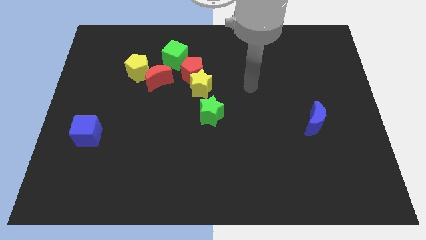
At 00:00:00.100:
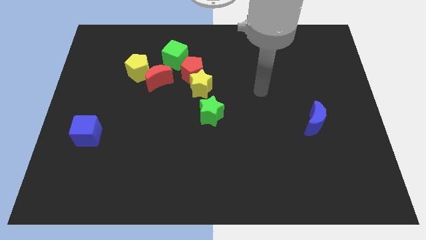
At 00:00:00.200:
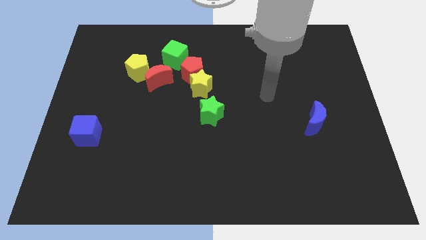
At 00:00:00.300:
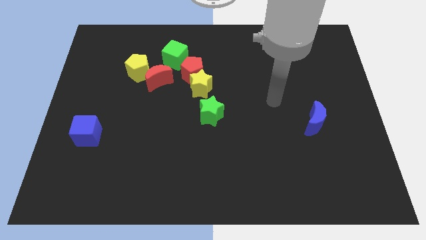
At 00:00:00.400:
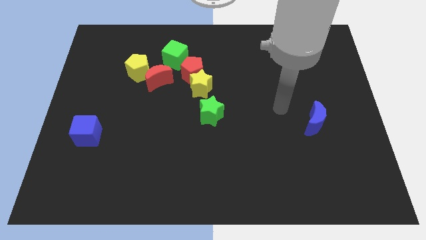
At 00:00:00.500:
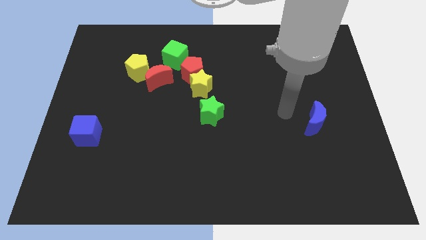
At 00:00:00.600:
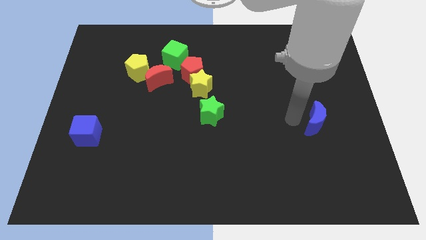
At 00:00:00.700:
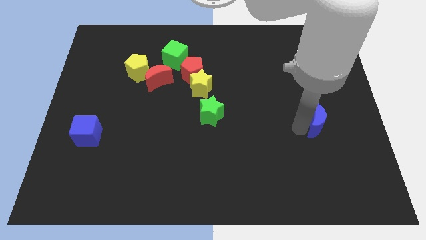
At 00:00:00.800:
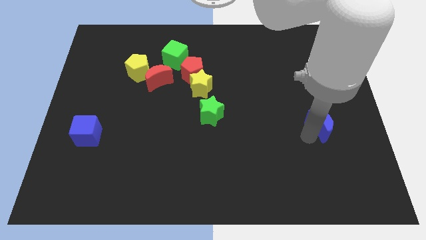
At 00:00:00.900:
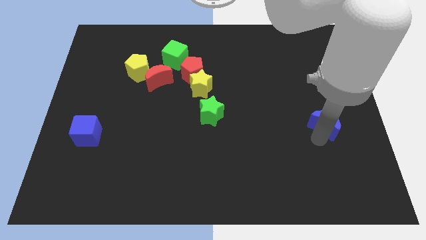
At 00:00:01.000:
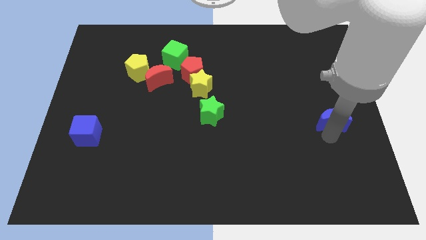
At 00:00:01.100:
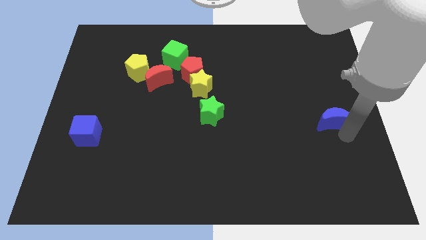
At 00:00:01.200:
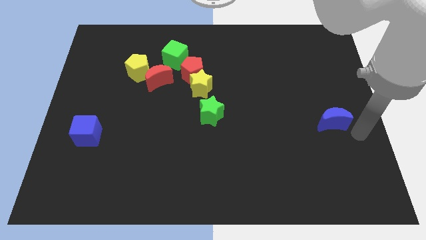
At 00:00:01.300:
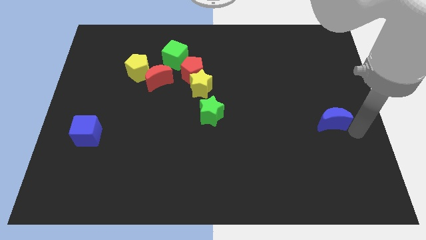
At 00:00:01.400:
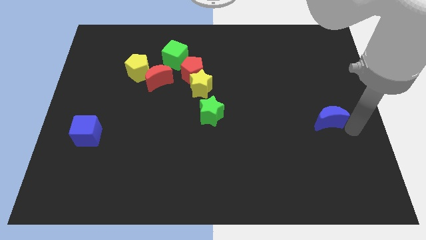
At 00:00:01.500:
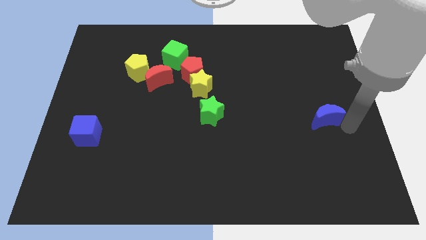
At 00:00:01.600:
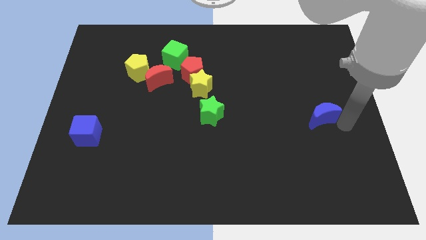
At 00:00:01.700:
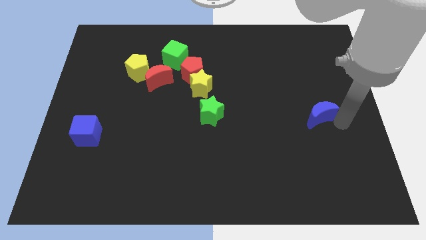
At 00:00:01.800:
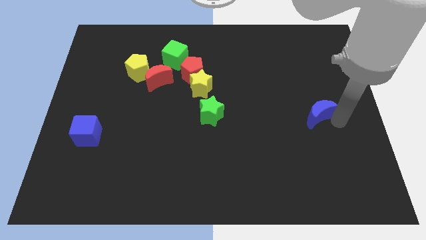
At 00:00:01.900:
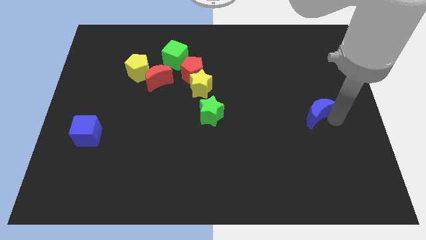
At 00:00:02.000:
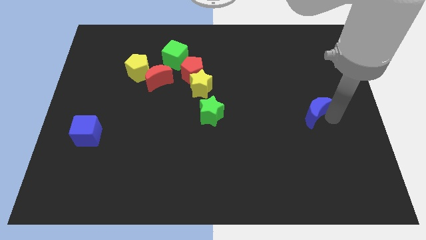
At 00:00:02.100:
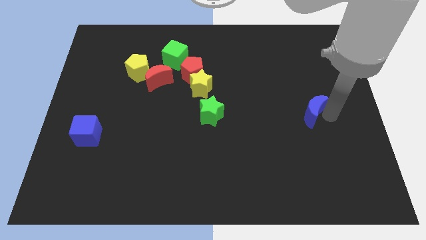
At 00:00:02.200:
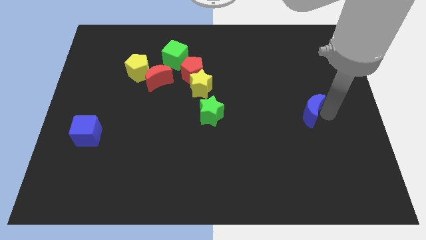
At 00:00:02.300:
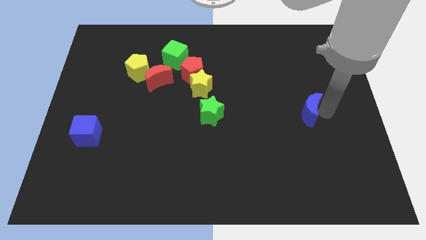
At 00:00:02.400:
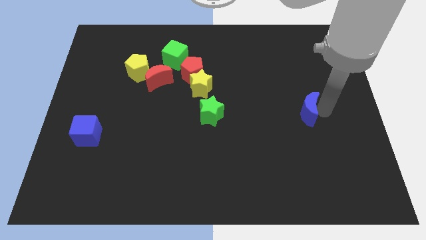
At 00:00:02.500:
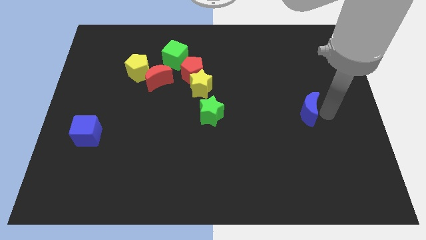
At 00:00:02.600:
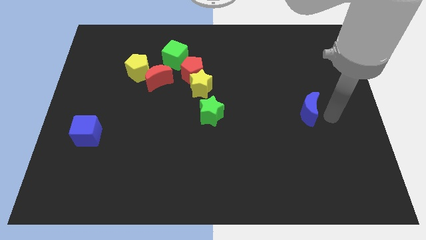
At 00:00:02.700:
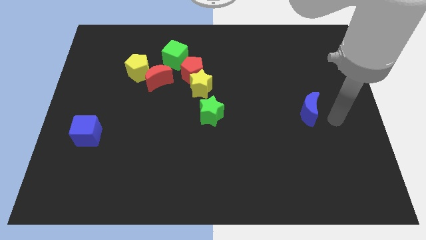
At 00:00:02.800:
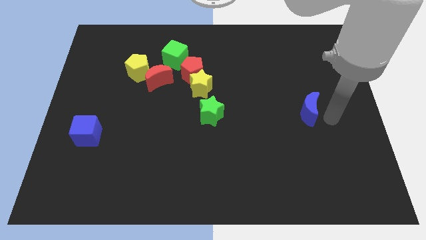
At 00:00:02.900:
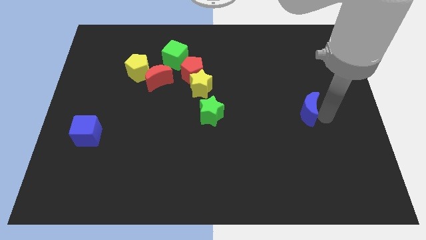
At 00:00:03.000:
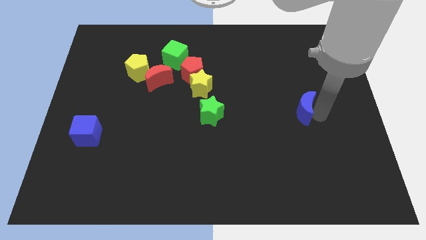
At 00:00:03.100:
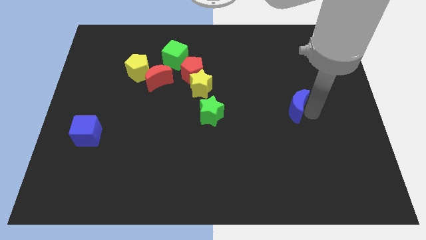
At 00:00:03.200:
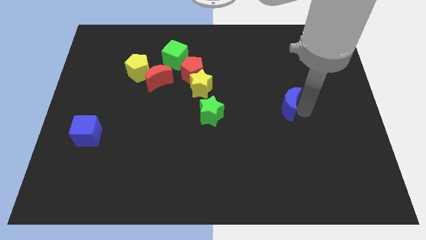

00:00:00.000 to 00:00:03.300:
slightly move the blue moon diagonally upwards and to the left

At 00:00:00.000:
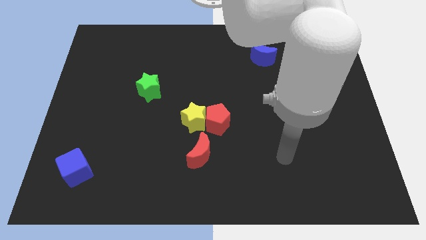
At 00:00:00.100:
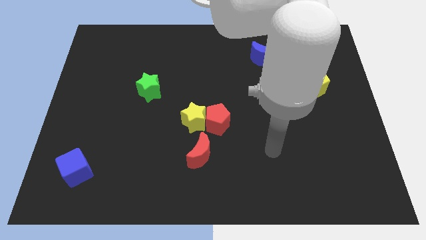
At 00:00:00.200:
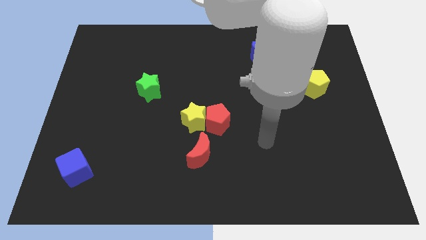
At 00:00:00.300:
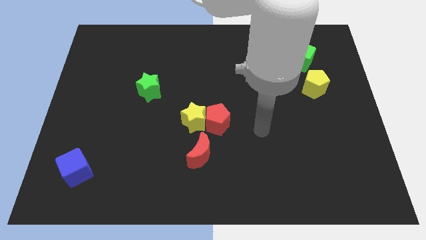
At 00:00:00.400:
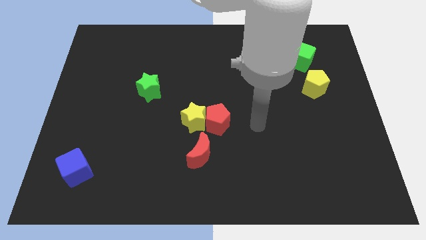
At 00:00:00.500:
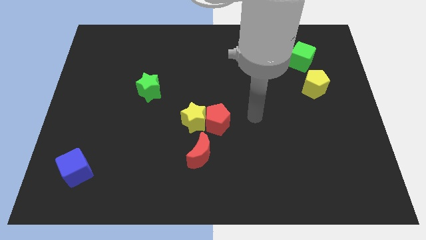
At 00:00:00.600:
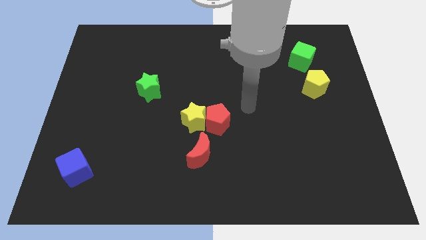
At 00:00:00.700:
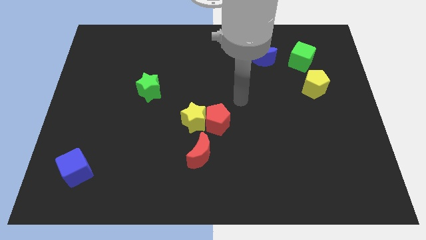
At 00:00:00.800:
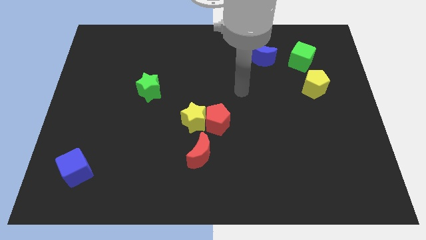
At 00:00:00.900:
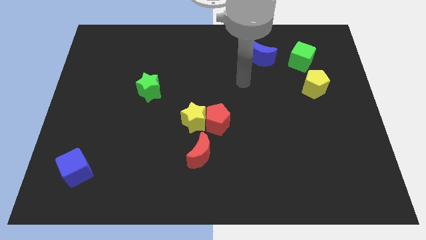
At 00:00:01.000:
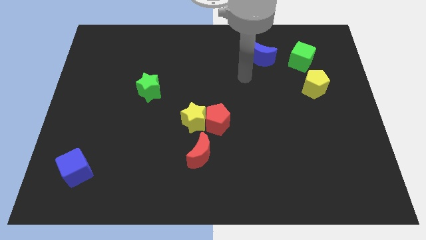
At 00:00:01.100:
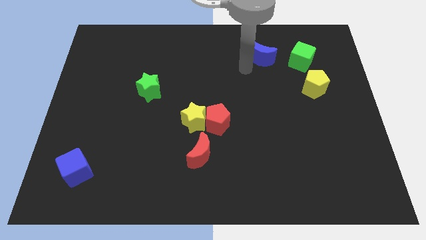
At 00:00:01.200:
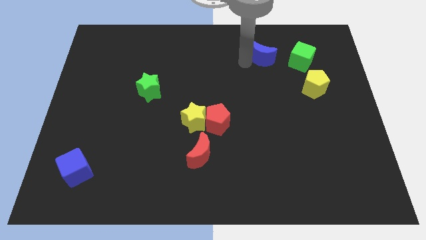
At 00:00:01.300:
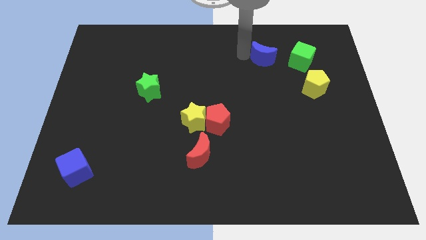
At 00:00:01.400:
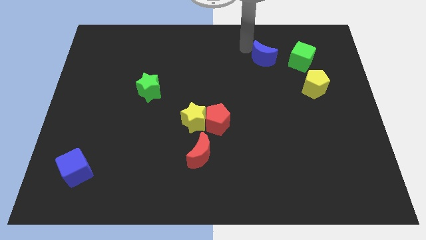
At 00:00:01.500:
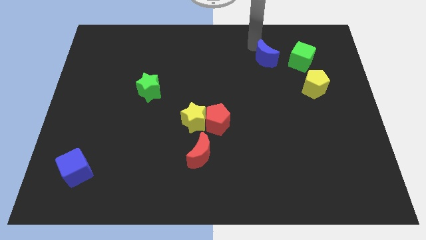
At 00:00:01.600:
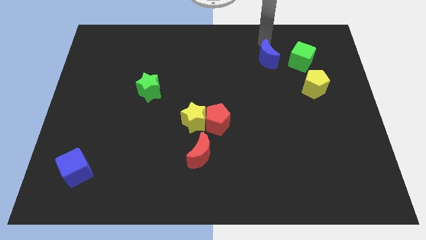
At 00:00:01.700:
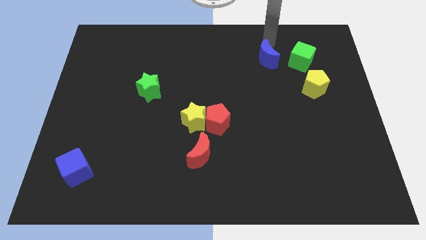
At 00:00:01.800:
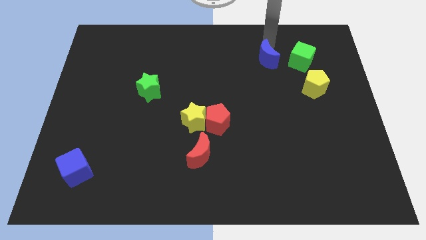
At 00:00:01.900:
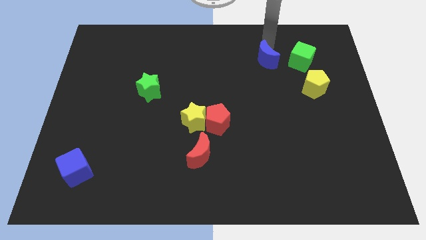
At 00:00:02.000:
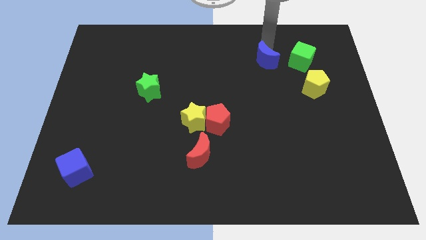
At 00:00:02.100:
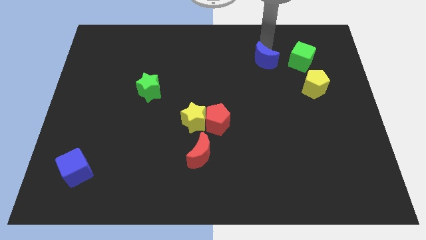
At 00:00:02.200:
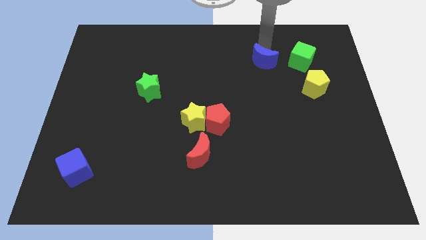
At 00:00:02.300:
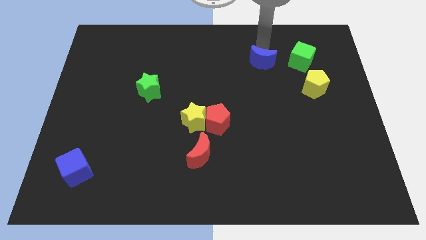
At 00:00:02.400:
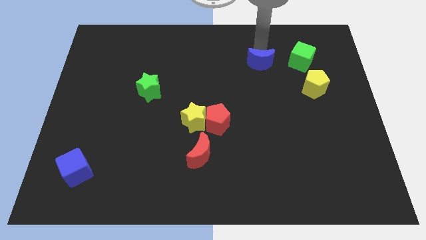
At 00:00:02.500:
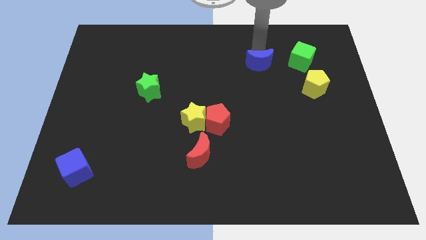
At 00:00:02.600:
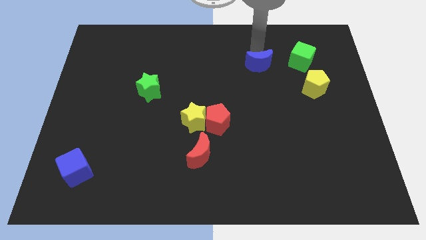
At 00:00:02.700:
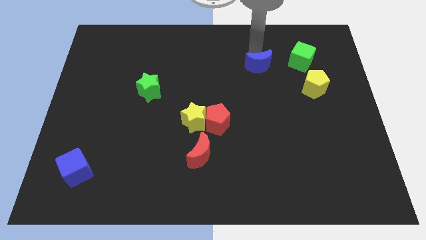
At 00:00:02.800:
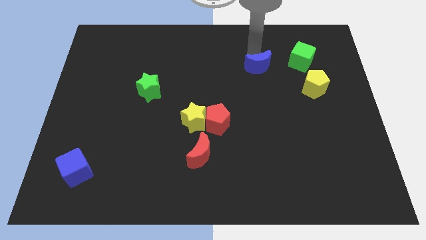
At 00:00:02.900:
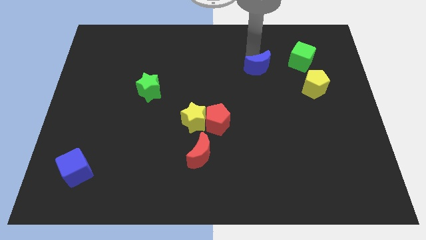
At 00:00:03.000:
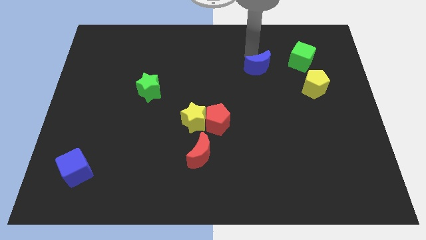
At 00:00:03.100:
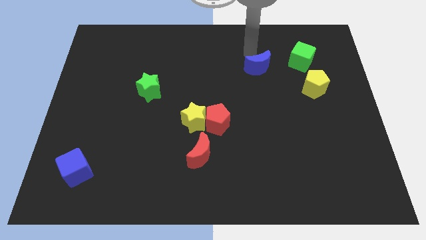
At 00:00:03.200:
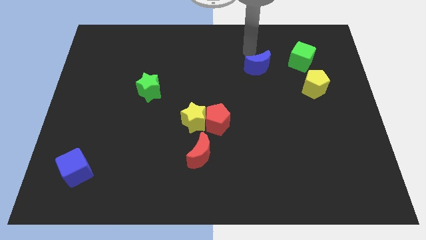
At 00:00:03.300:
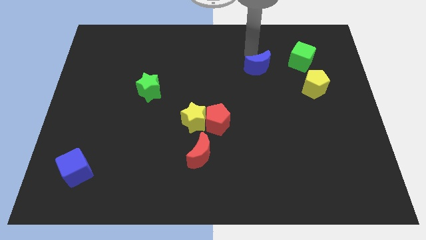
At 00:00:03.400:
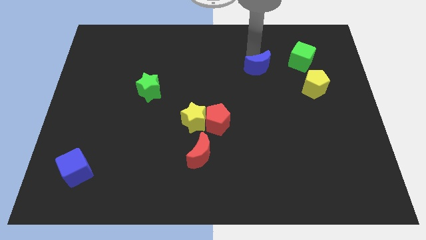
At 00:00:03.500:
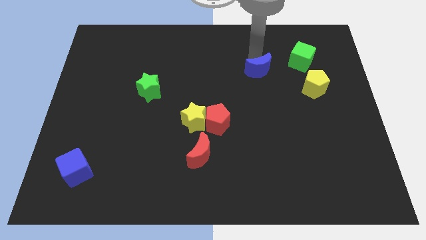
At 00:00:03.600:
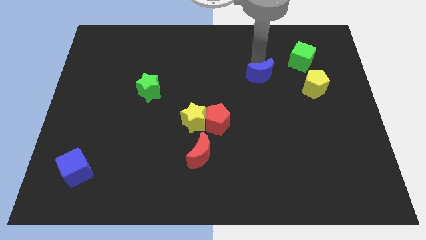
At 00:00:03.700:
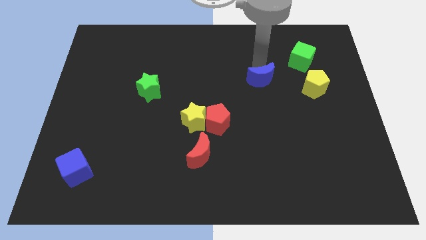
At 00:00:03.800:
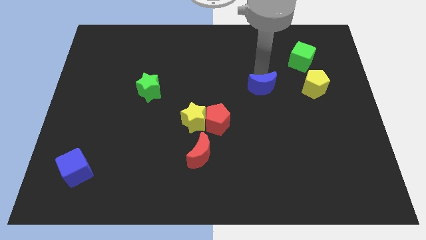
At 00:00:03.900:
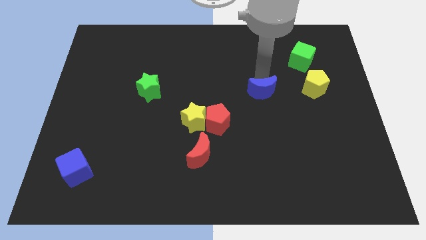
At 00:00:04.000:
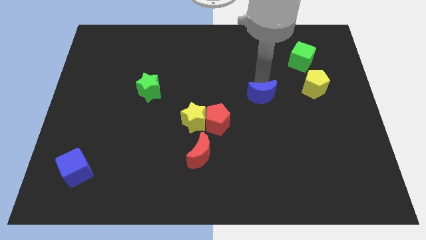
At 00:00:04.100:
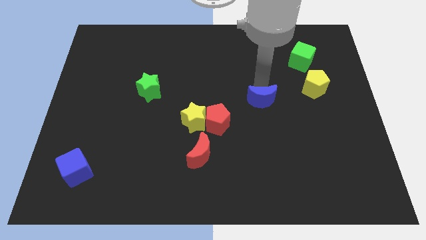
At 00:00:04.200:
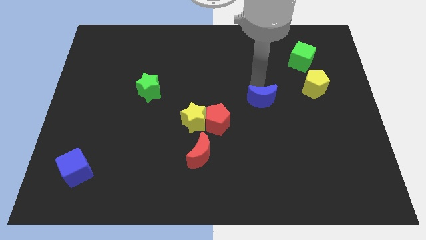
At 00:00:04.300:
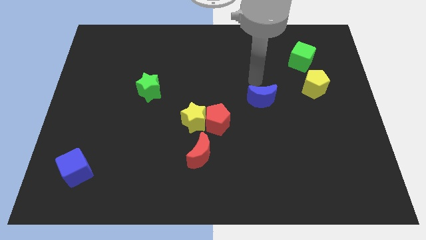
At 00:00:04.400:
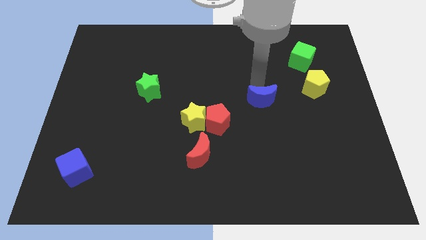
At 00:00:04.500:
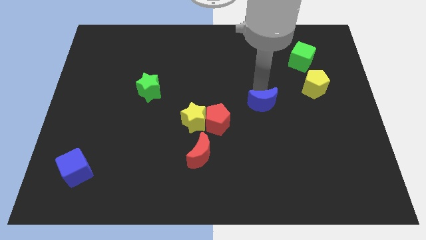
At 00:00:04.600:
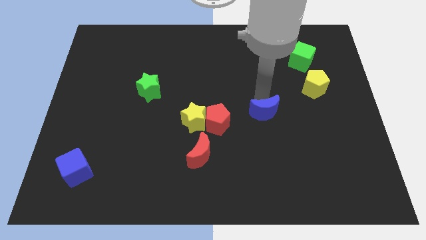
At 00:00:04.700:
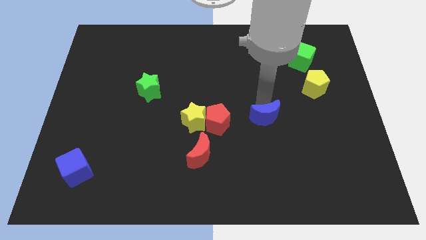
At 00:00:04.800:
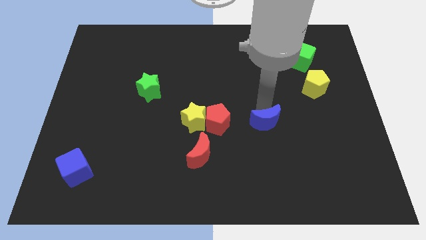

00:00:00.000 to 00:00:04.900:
push the blue moon downwards
